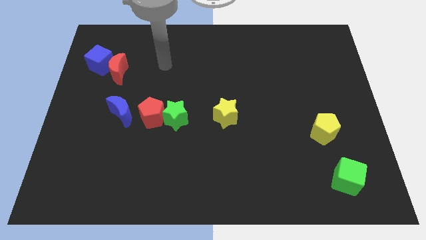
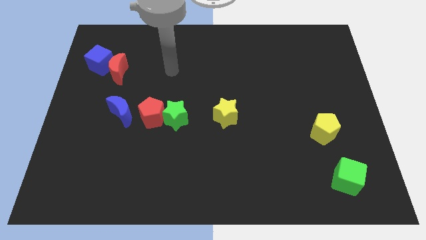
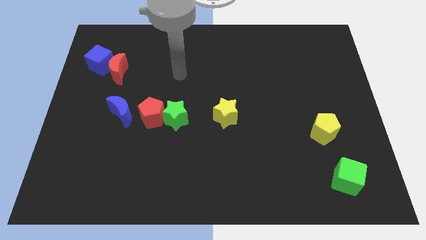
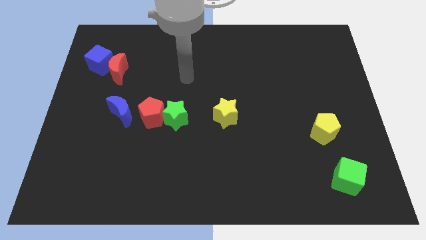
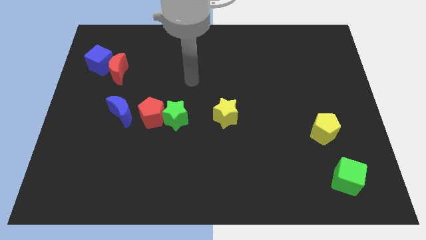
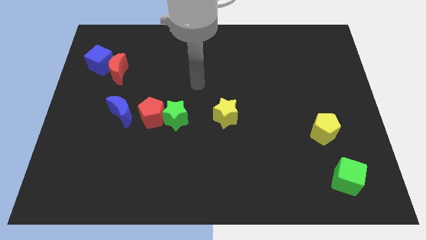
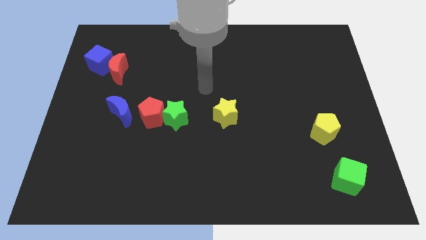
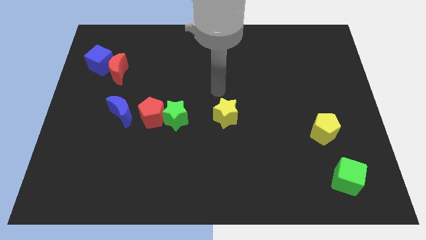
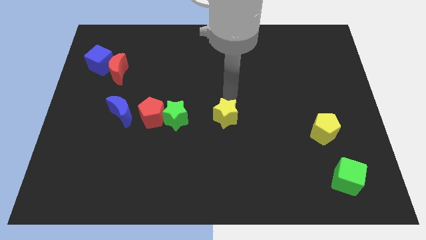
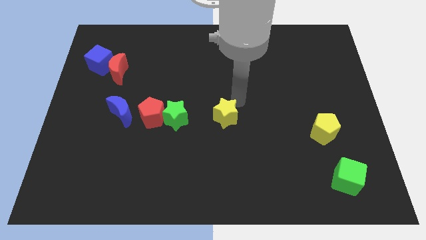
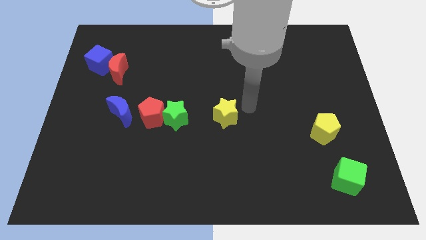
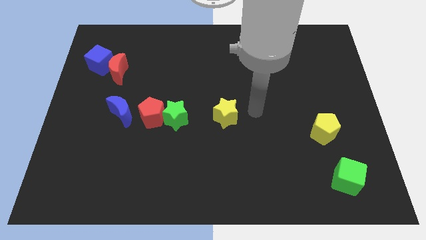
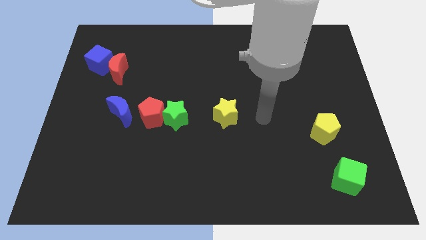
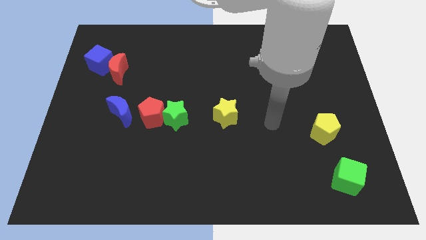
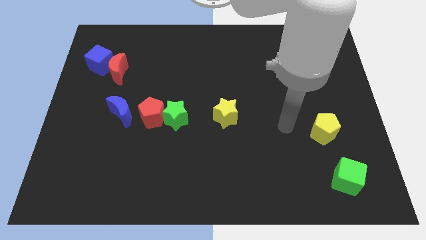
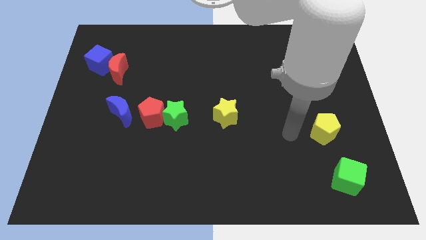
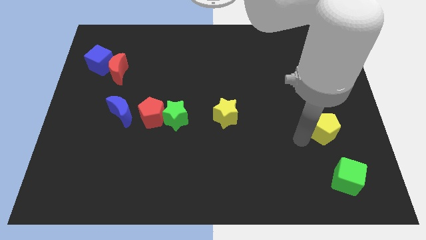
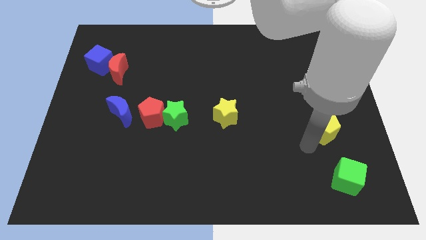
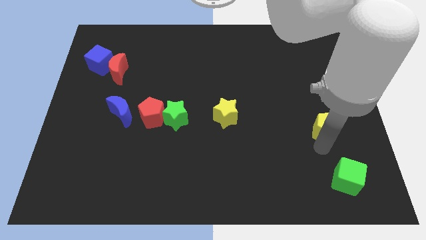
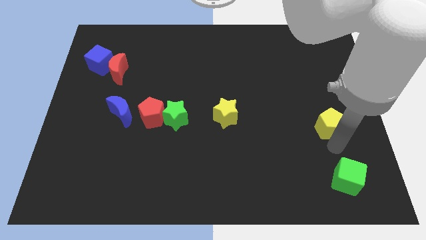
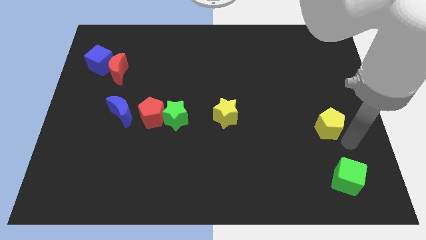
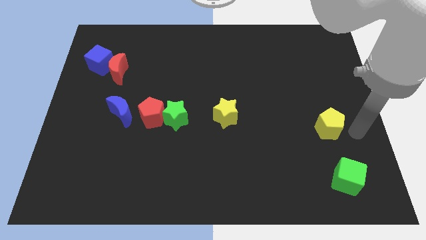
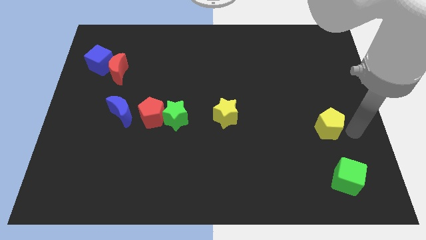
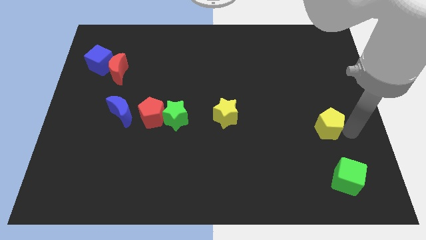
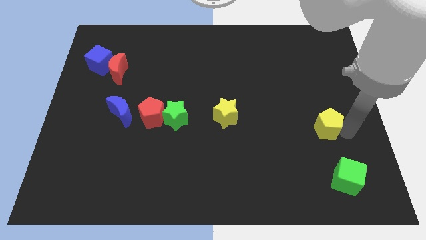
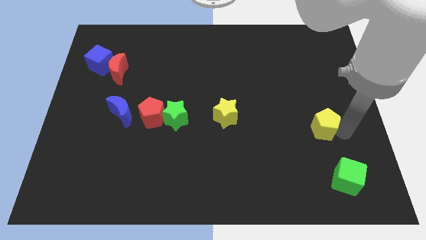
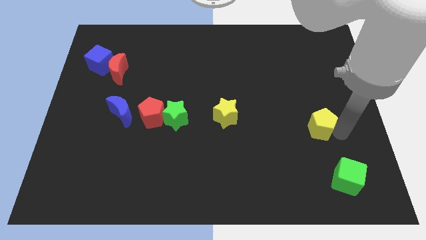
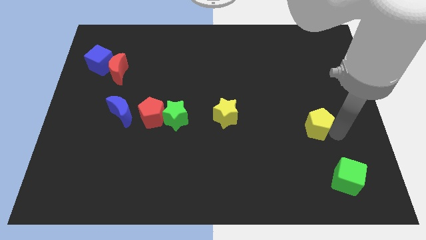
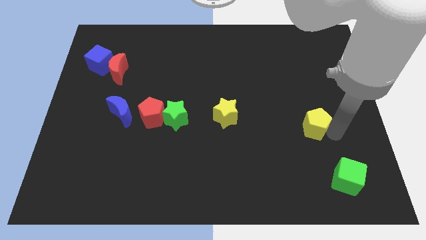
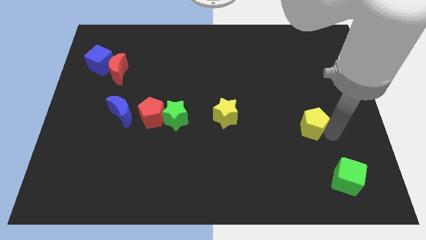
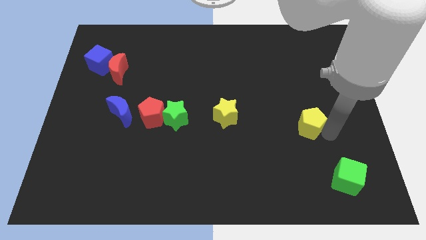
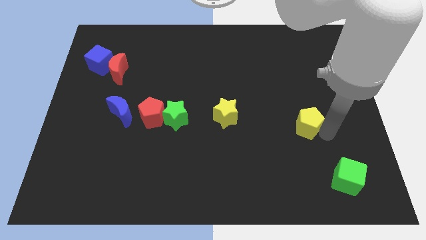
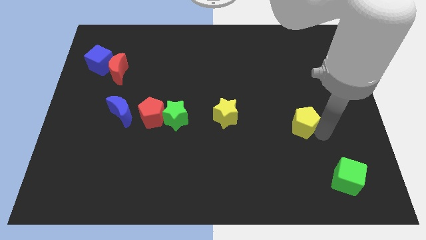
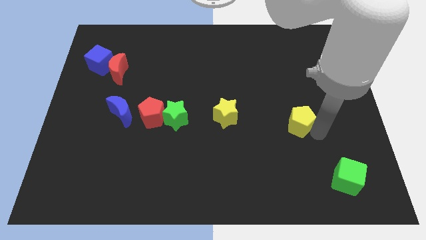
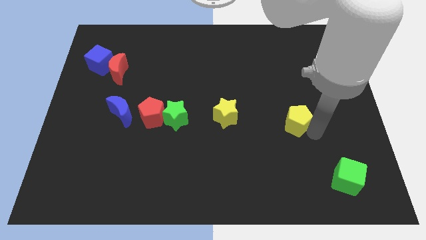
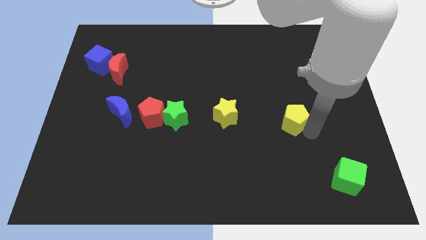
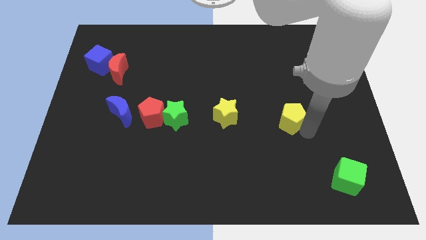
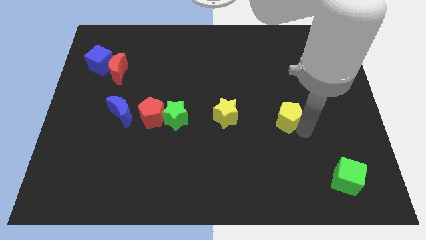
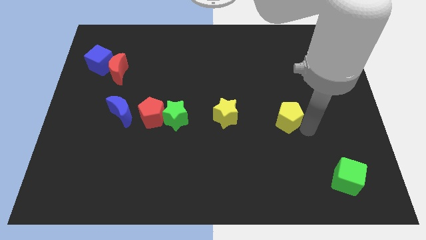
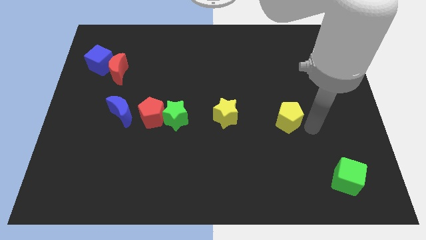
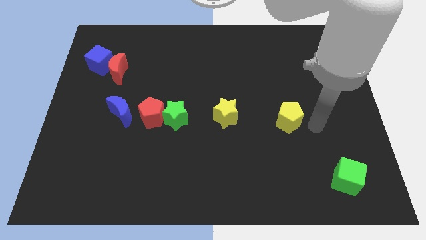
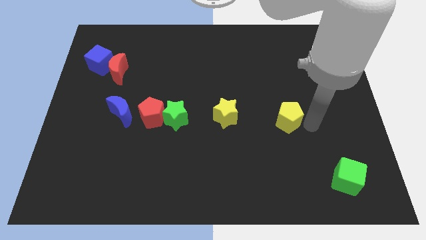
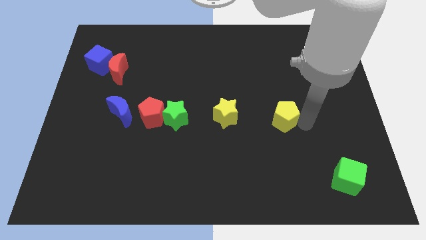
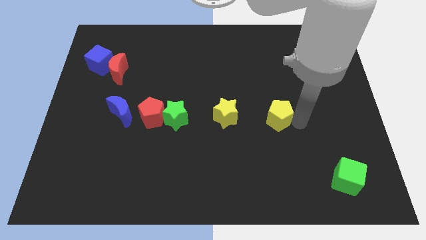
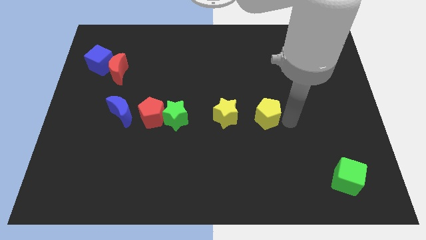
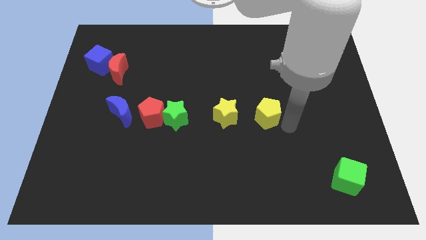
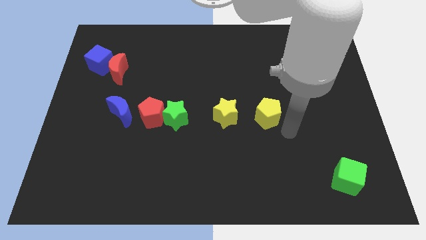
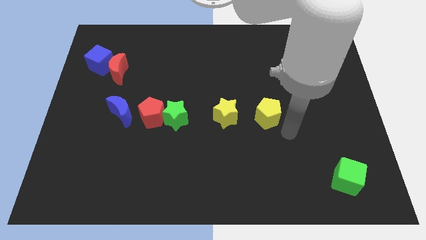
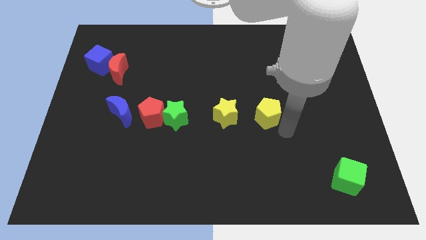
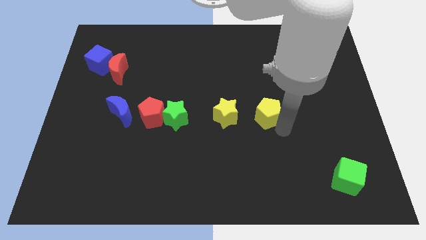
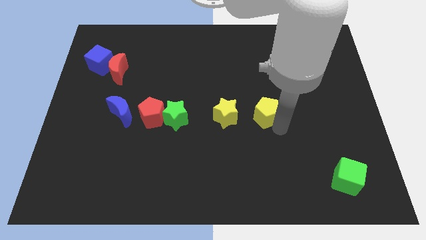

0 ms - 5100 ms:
put the yellow pentagon to the center

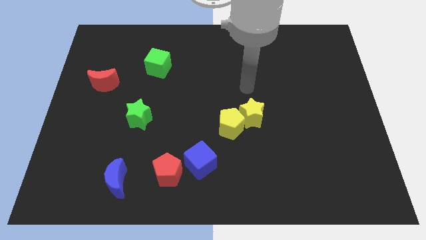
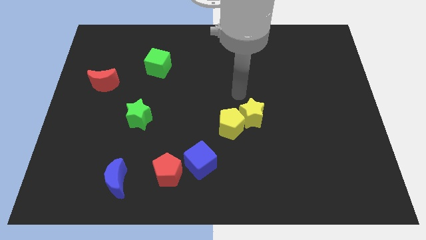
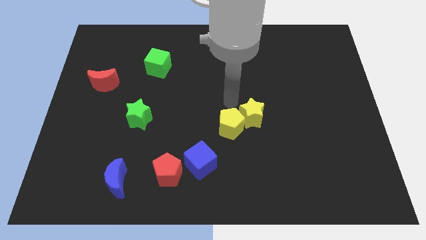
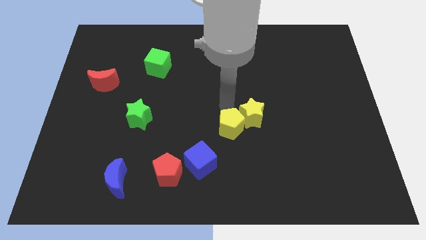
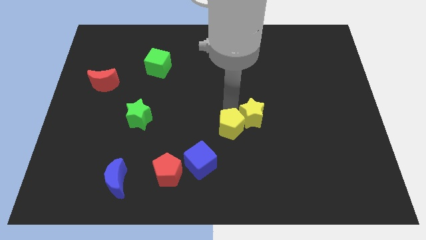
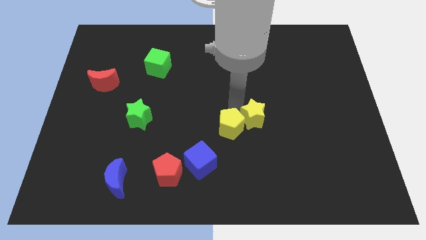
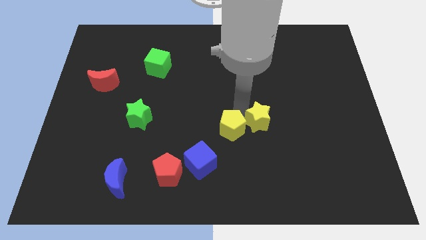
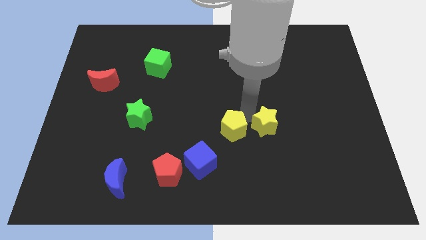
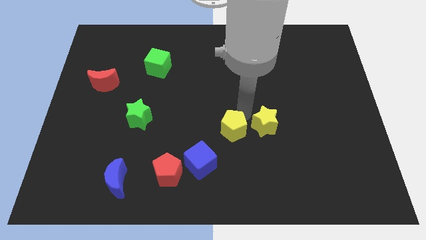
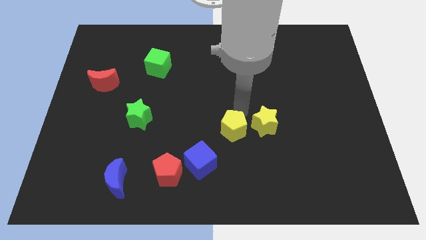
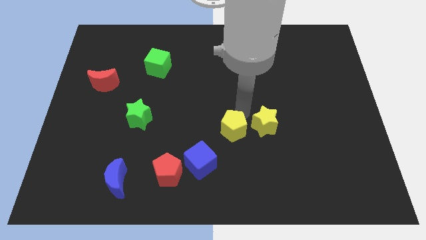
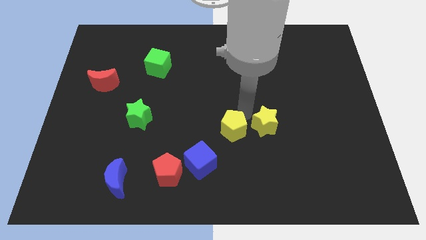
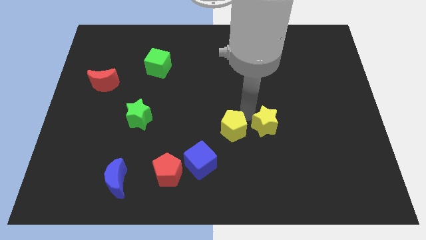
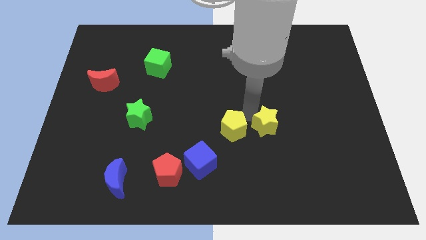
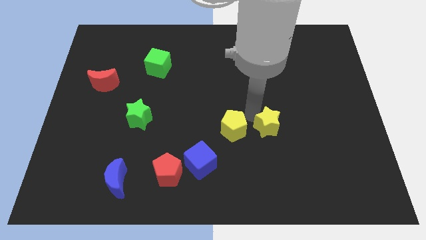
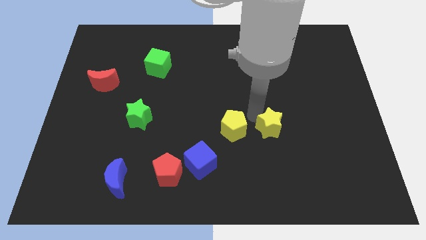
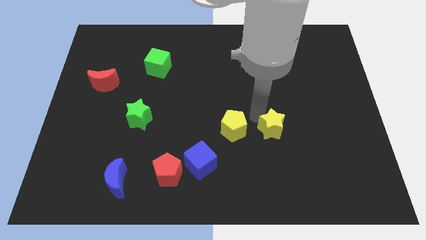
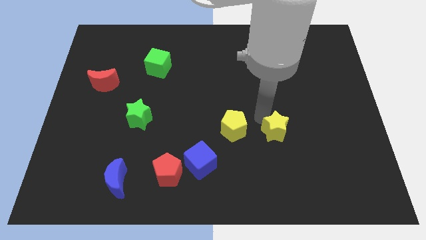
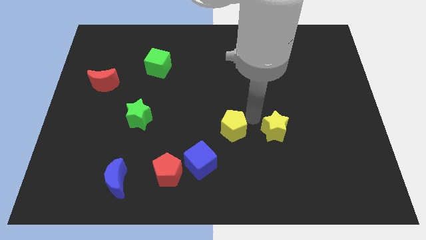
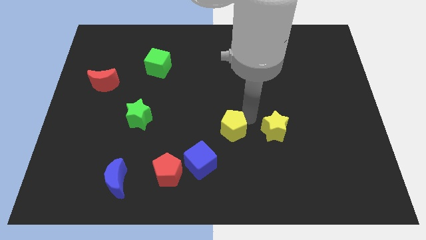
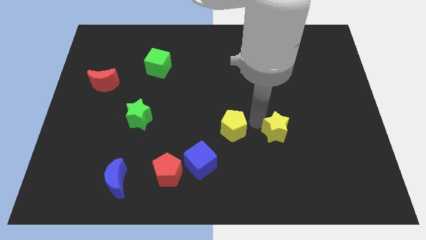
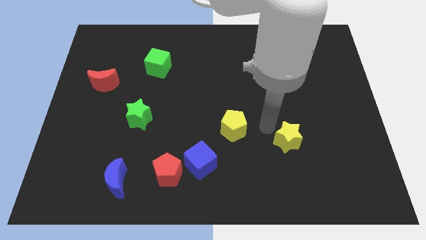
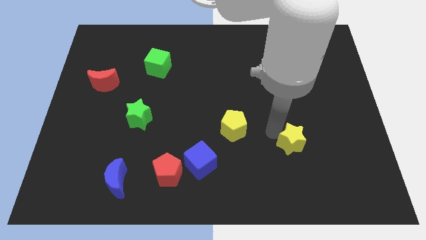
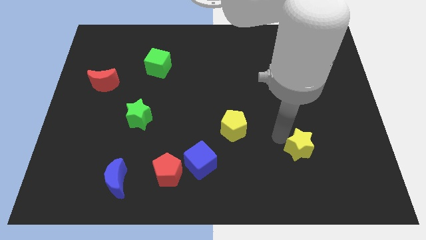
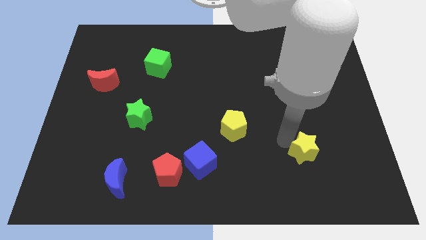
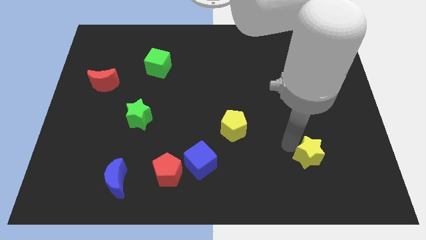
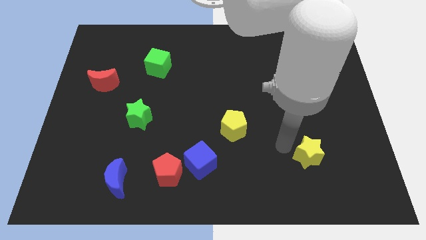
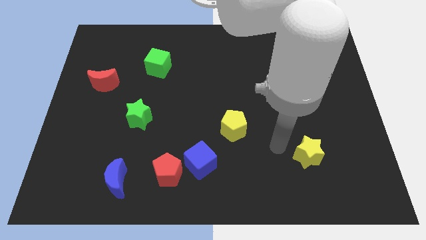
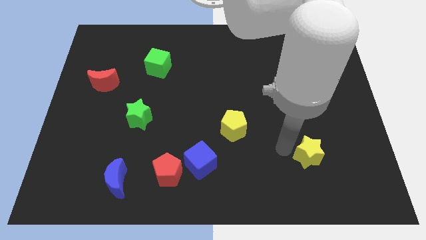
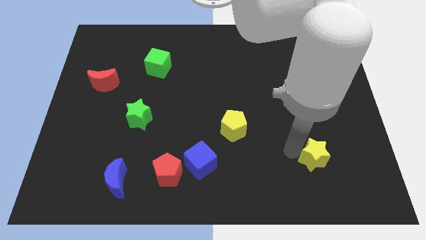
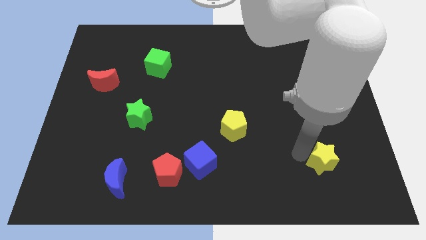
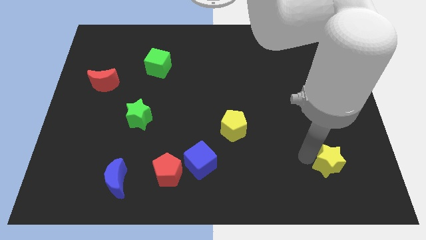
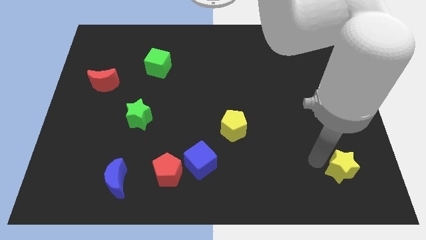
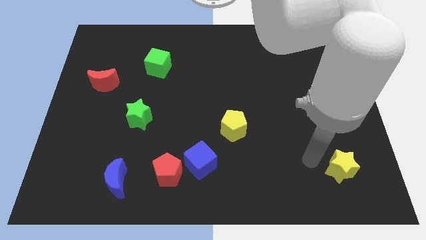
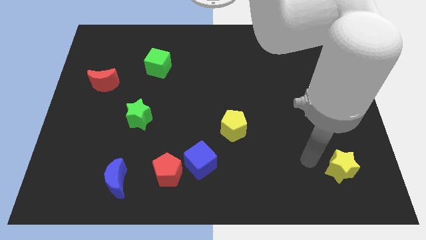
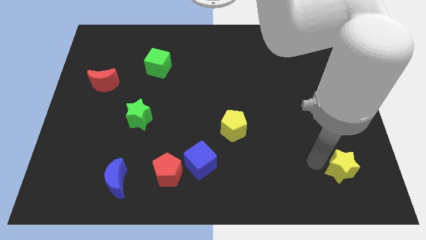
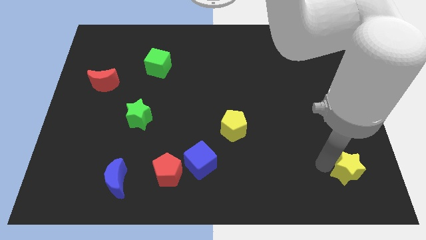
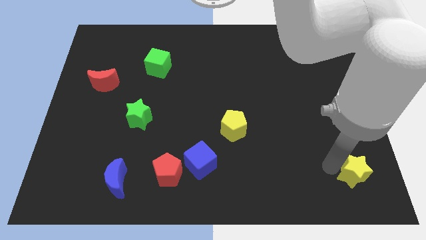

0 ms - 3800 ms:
push the yellow star to the bottom right
